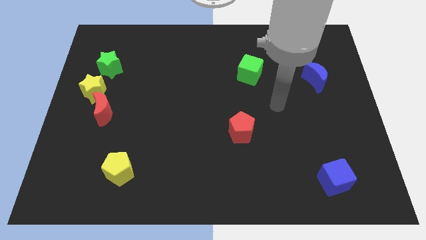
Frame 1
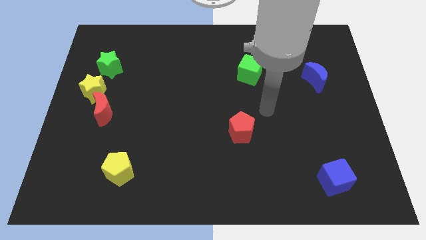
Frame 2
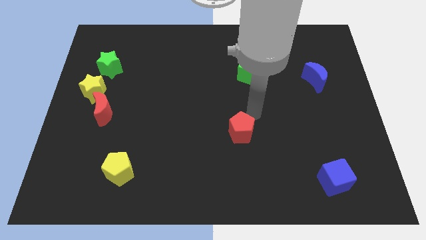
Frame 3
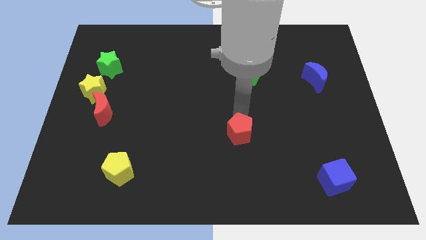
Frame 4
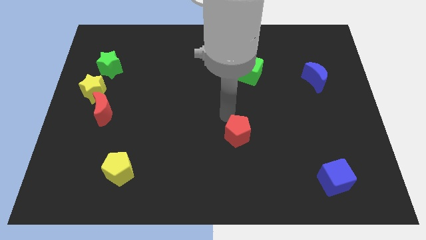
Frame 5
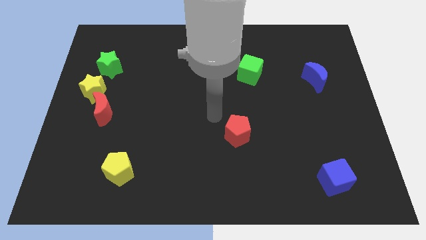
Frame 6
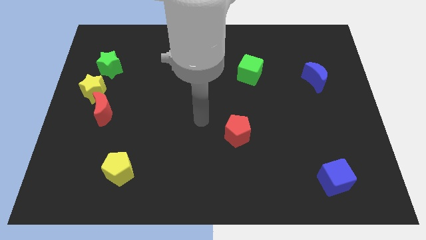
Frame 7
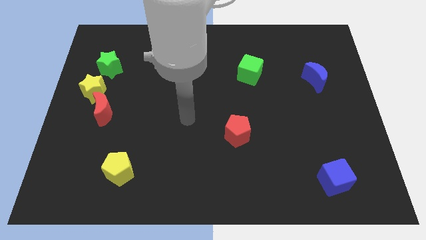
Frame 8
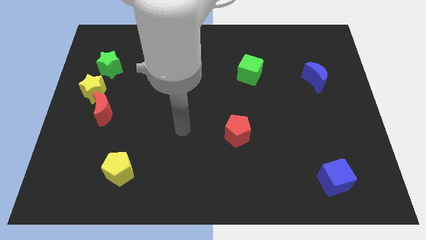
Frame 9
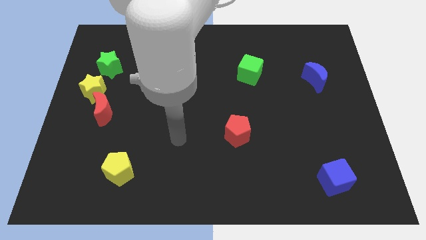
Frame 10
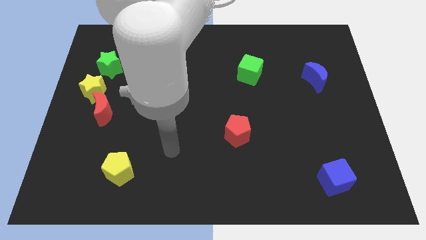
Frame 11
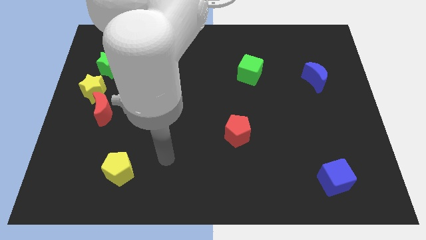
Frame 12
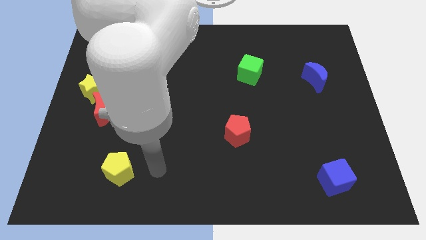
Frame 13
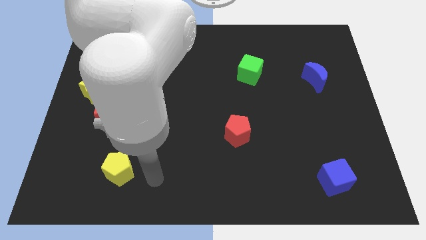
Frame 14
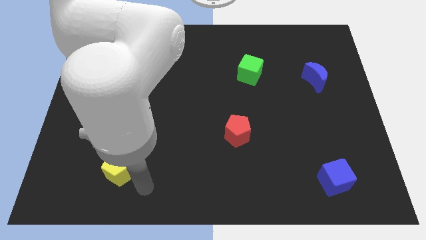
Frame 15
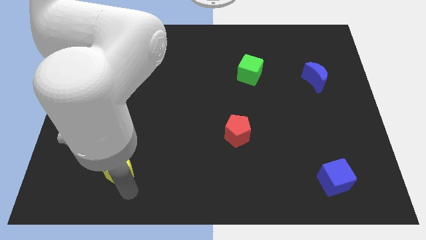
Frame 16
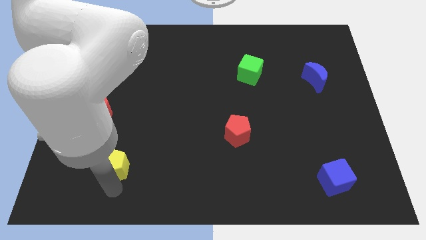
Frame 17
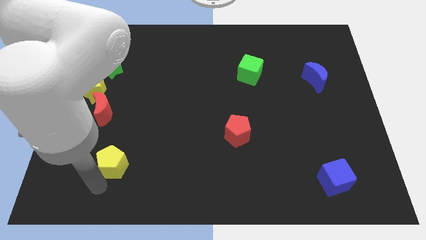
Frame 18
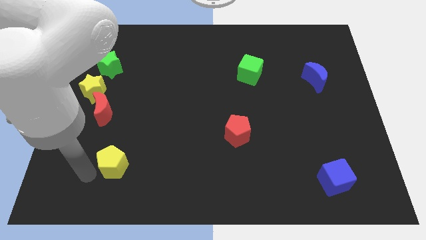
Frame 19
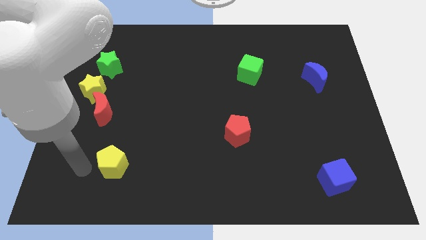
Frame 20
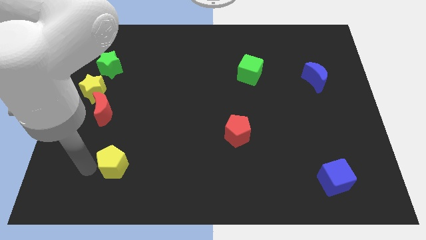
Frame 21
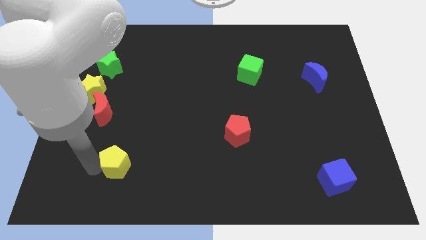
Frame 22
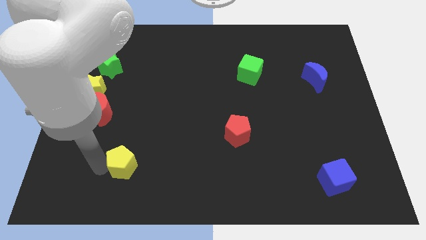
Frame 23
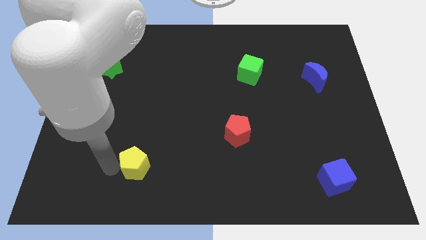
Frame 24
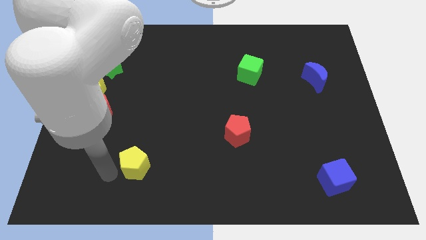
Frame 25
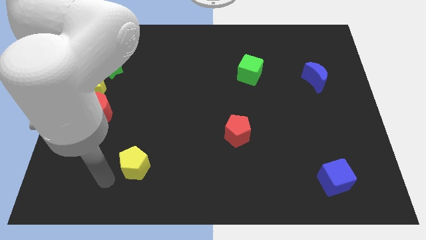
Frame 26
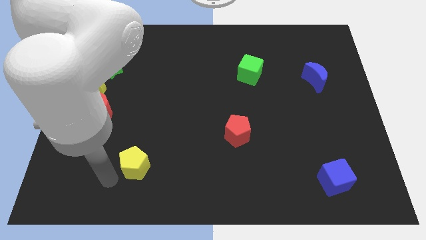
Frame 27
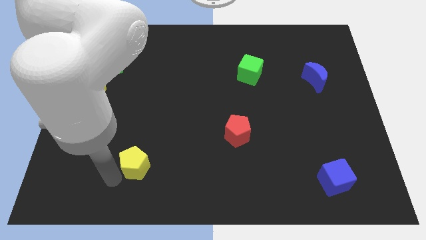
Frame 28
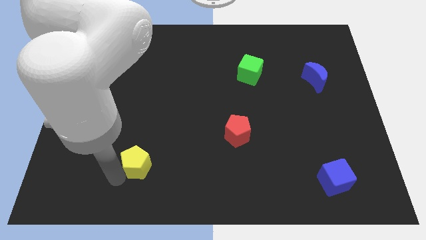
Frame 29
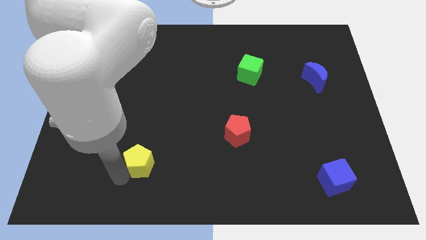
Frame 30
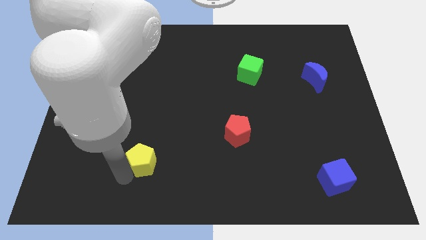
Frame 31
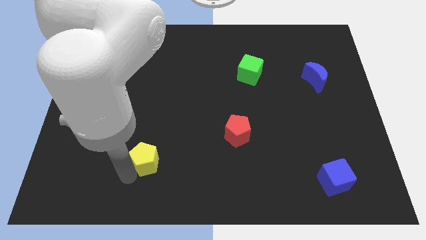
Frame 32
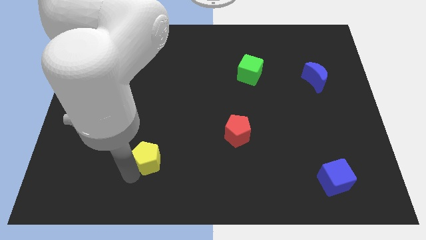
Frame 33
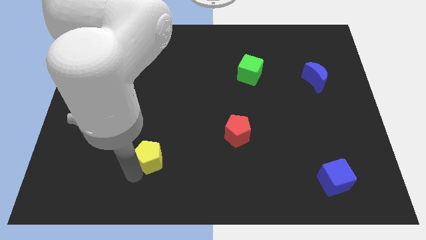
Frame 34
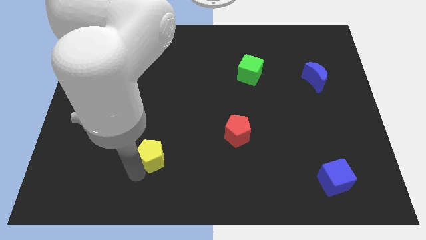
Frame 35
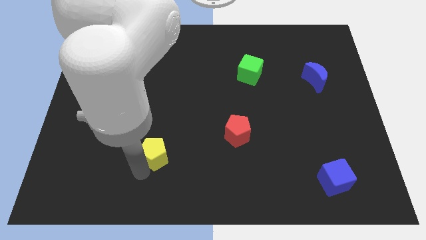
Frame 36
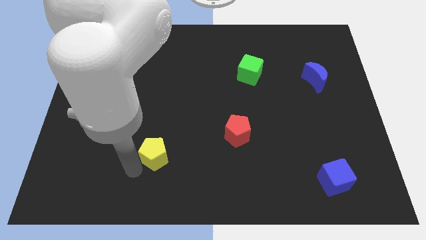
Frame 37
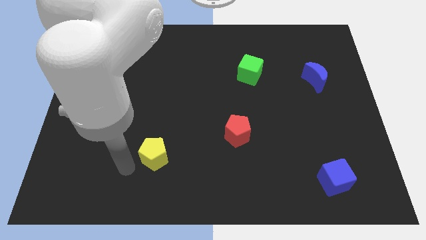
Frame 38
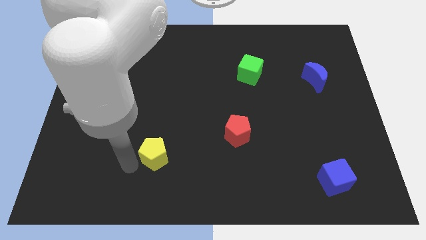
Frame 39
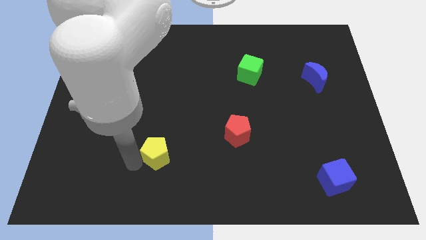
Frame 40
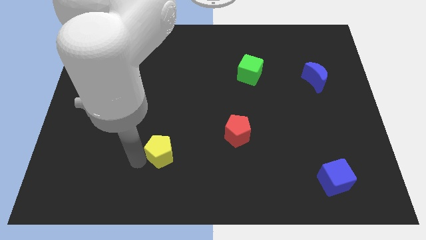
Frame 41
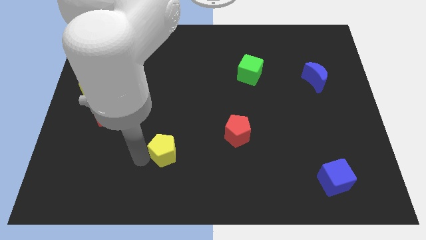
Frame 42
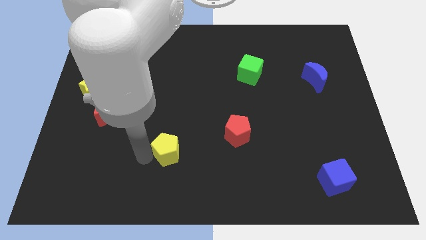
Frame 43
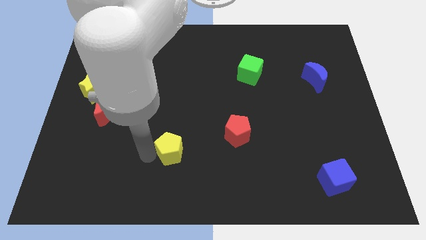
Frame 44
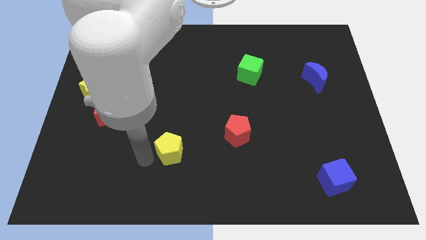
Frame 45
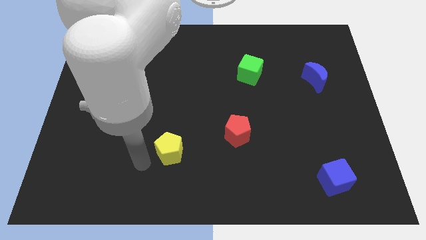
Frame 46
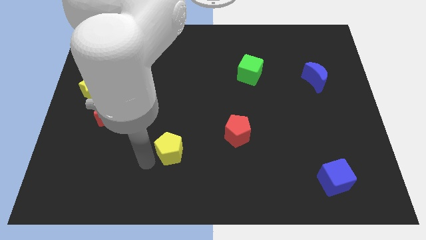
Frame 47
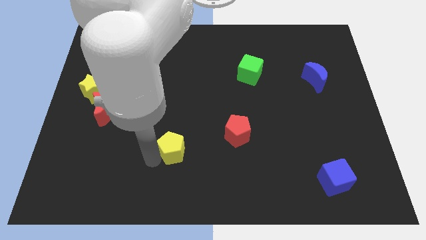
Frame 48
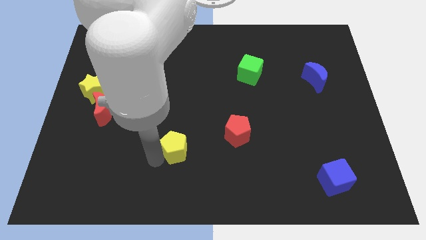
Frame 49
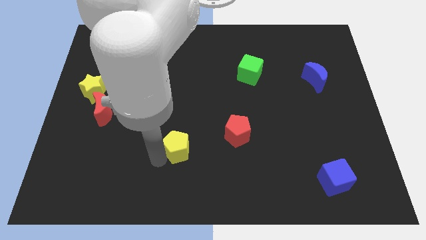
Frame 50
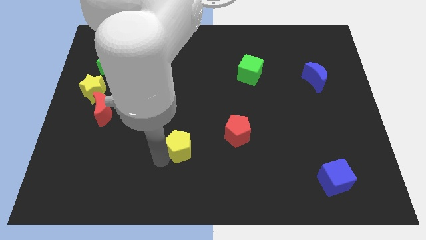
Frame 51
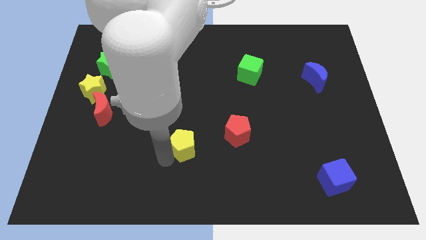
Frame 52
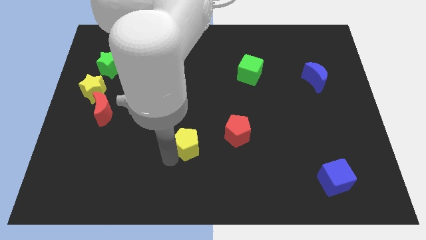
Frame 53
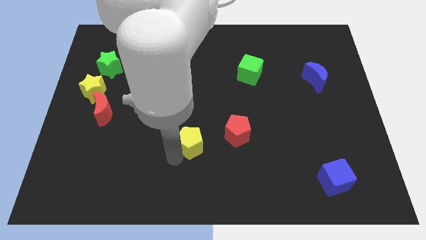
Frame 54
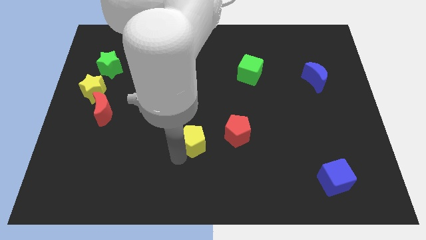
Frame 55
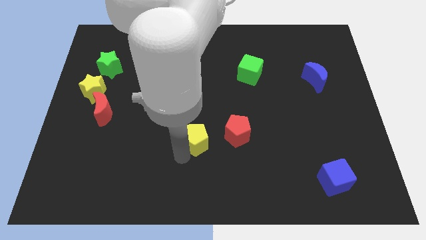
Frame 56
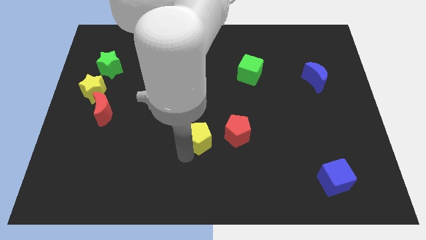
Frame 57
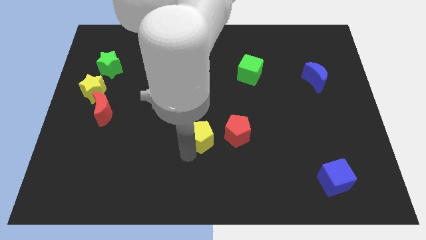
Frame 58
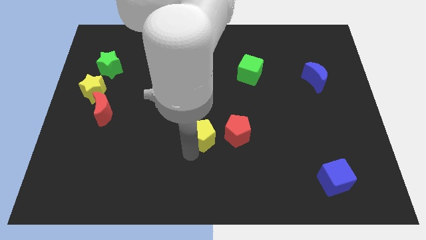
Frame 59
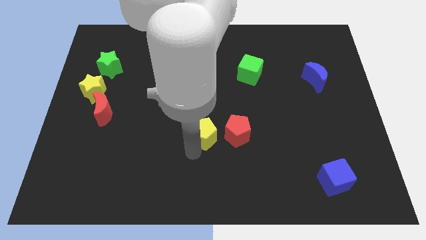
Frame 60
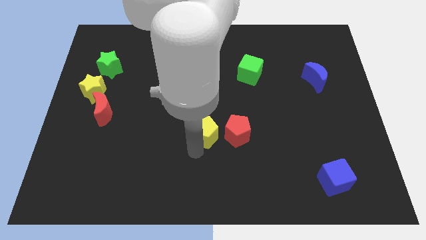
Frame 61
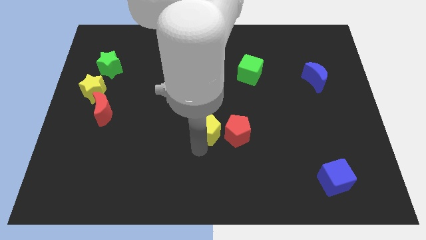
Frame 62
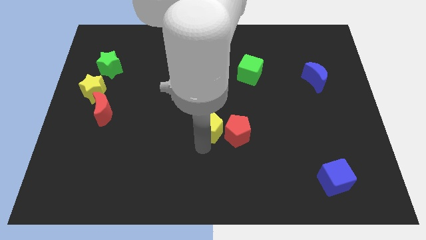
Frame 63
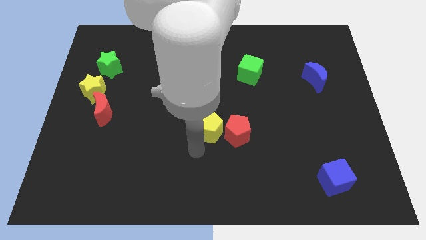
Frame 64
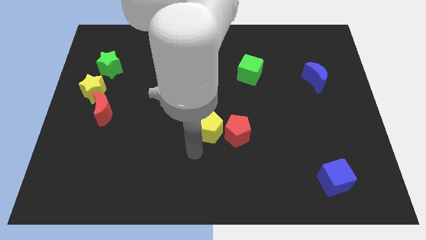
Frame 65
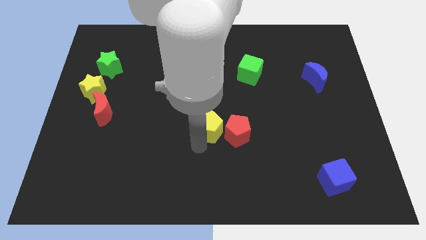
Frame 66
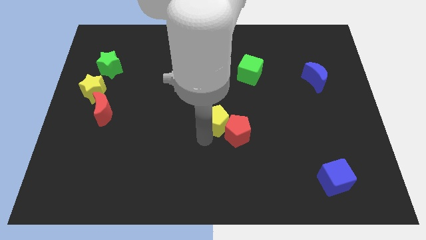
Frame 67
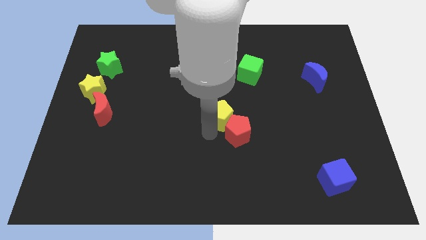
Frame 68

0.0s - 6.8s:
push the yellow pentagon to the top of the red pentagon

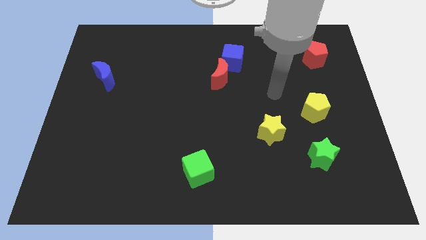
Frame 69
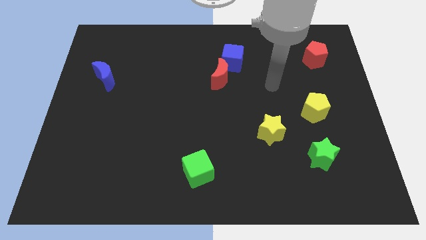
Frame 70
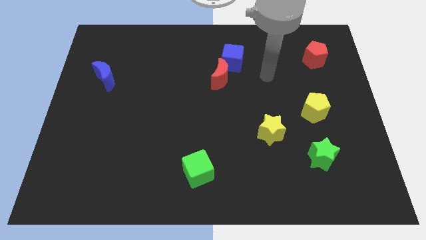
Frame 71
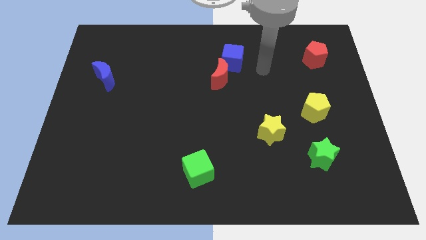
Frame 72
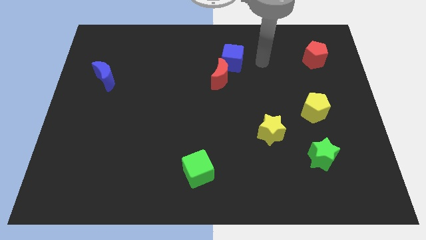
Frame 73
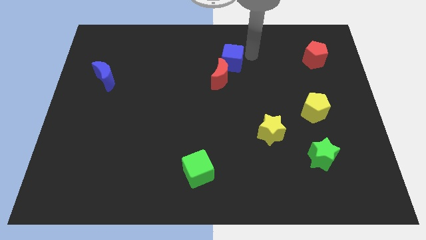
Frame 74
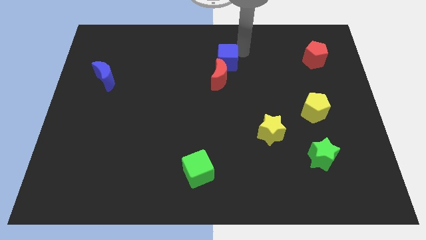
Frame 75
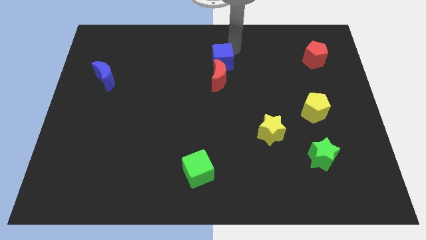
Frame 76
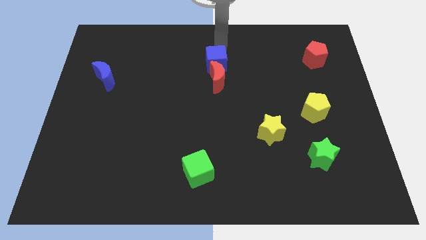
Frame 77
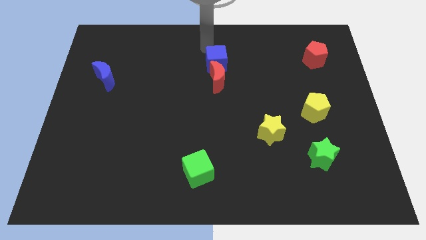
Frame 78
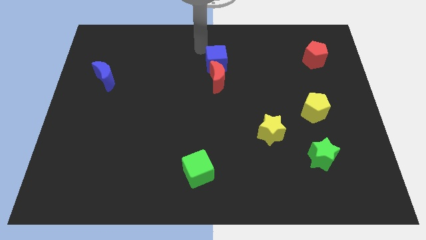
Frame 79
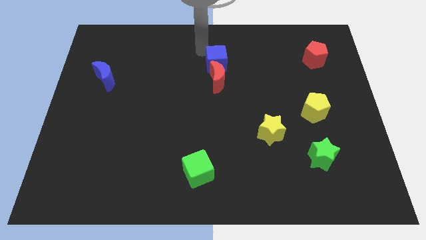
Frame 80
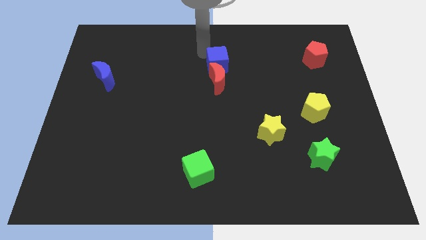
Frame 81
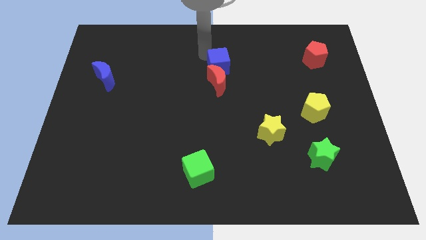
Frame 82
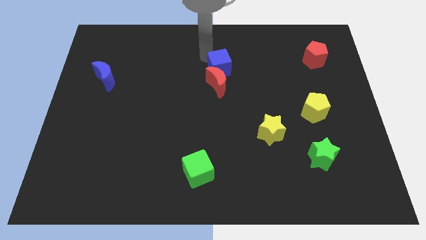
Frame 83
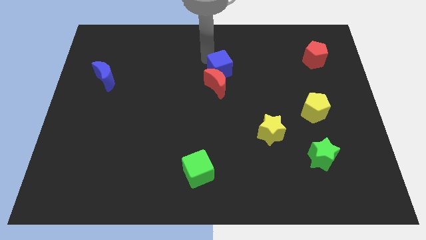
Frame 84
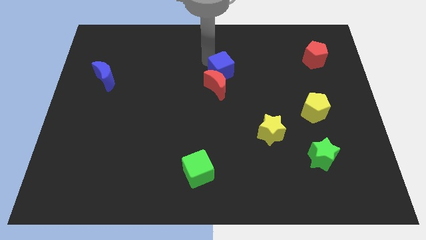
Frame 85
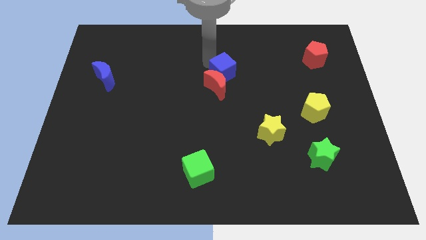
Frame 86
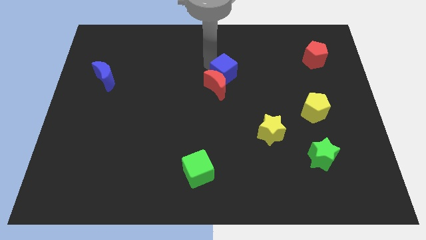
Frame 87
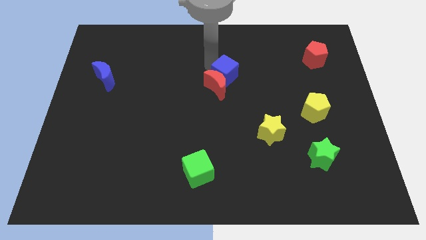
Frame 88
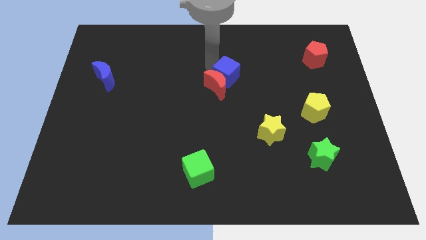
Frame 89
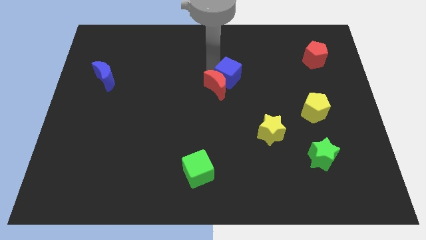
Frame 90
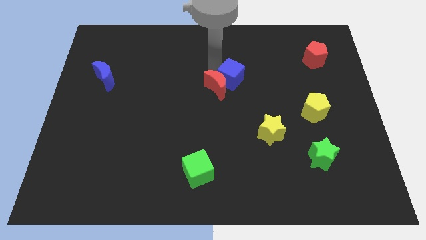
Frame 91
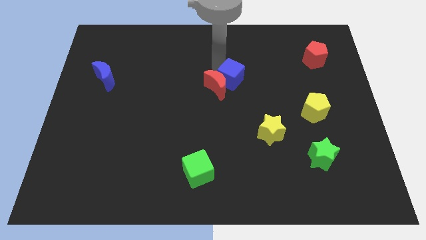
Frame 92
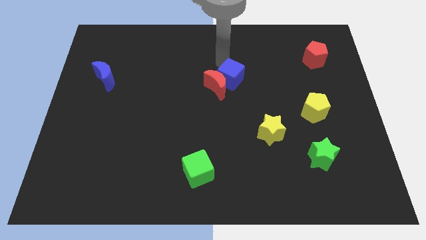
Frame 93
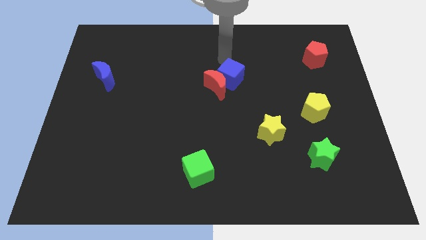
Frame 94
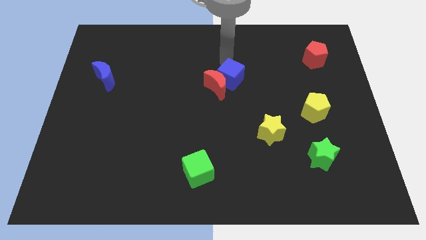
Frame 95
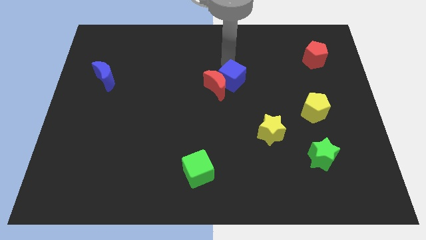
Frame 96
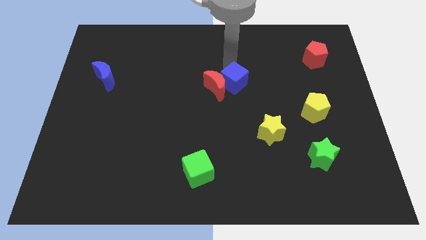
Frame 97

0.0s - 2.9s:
slide the blue cube diagonally down and to the right of the red moon
